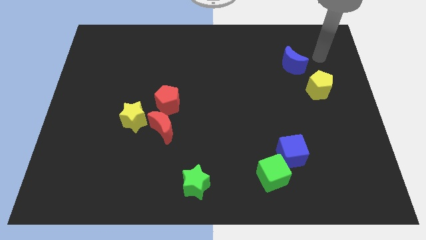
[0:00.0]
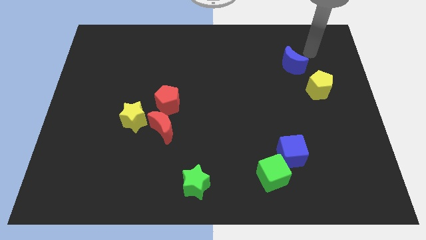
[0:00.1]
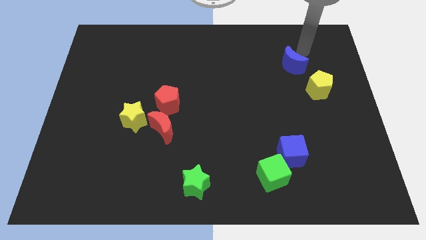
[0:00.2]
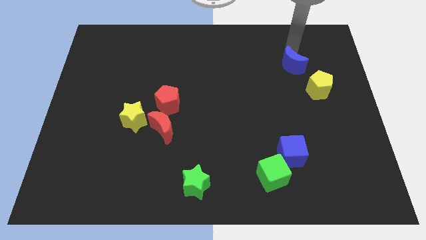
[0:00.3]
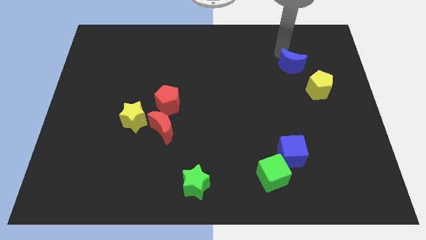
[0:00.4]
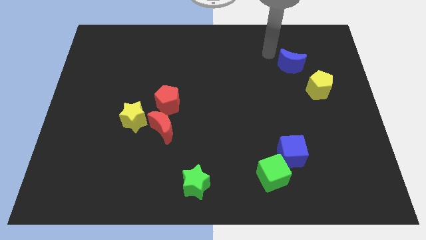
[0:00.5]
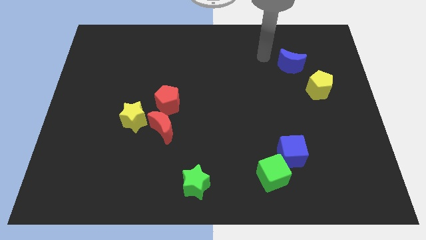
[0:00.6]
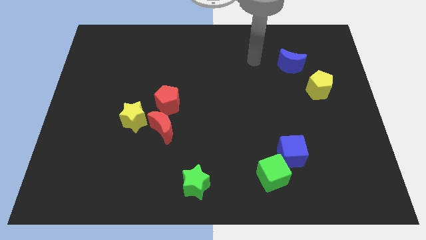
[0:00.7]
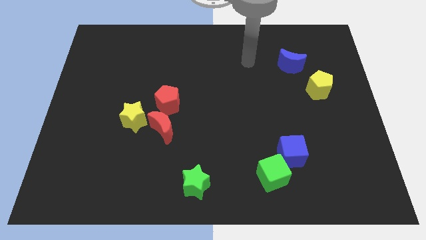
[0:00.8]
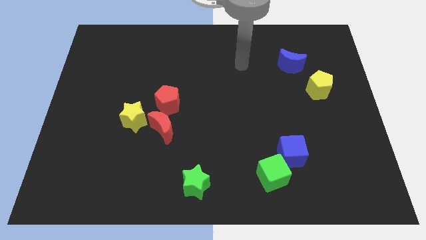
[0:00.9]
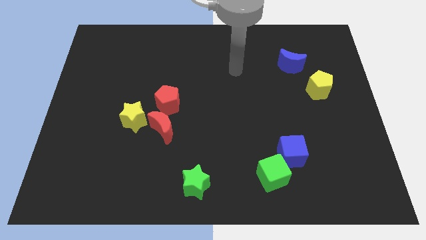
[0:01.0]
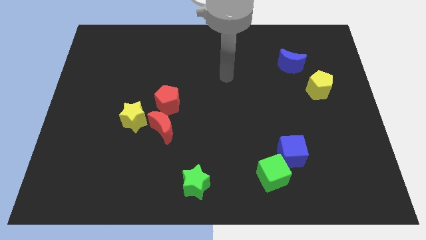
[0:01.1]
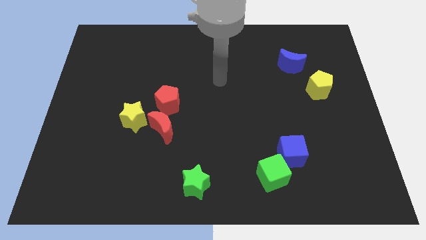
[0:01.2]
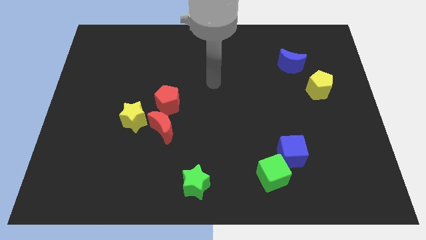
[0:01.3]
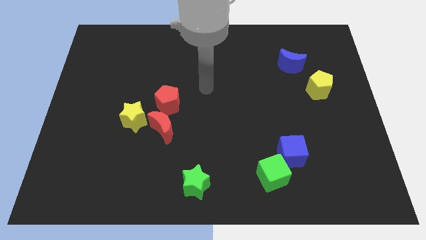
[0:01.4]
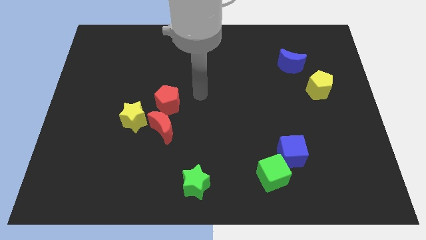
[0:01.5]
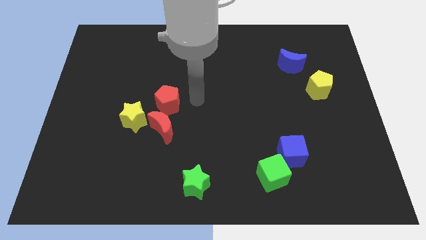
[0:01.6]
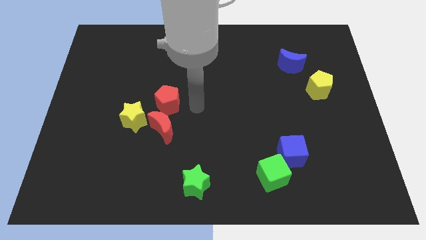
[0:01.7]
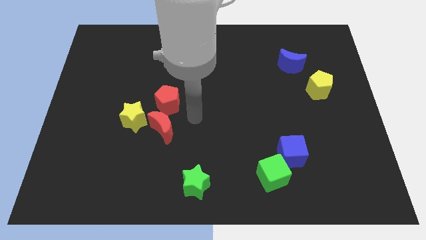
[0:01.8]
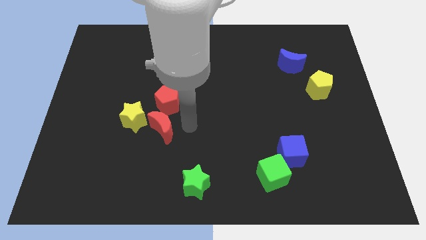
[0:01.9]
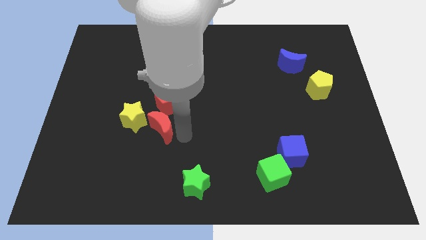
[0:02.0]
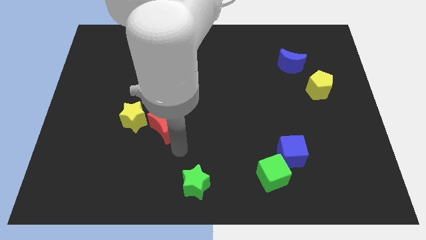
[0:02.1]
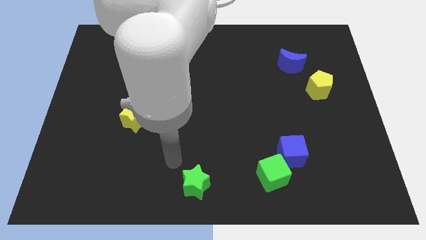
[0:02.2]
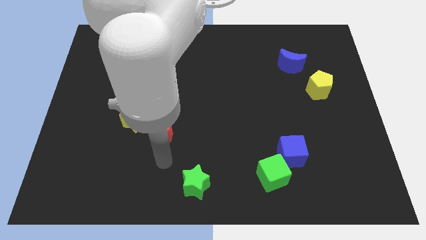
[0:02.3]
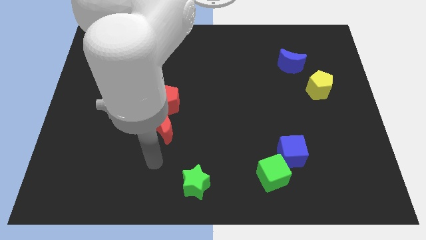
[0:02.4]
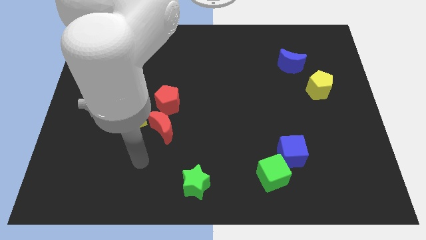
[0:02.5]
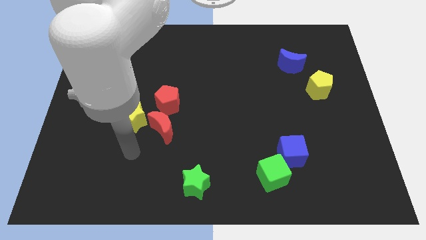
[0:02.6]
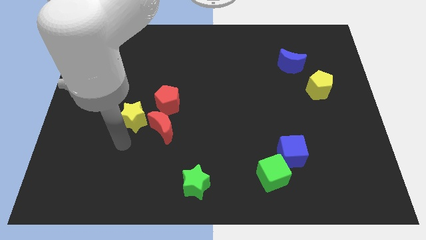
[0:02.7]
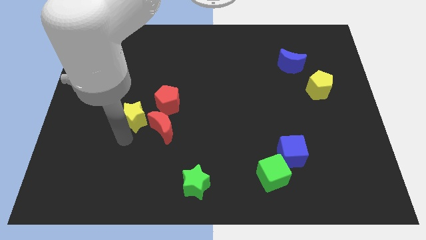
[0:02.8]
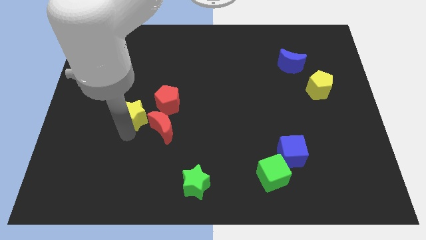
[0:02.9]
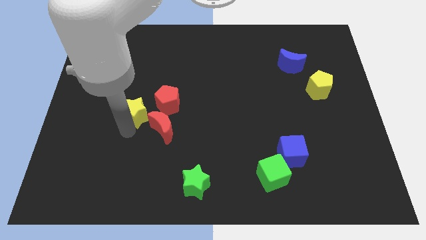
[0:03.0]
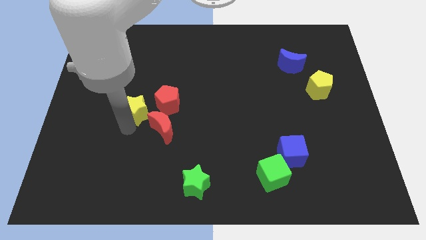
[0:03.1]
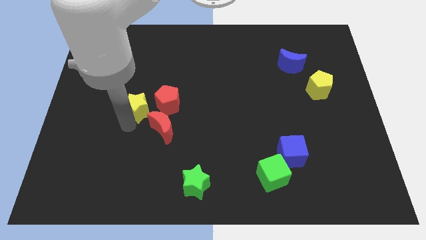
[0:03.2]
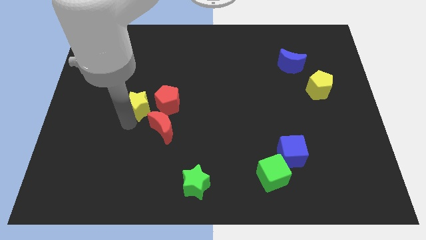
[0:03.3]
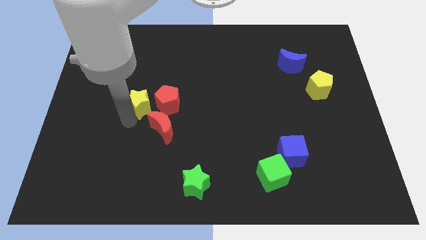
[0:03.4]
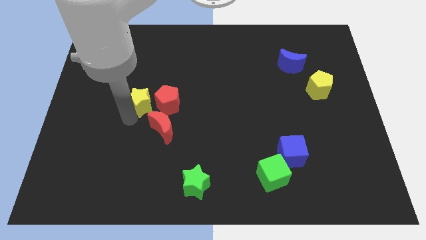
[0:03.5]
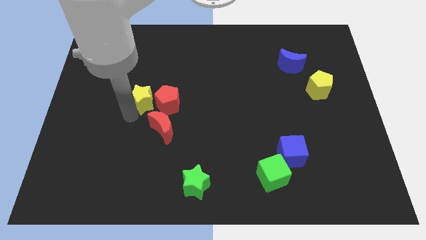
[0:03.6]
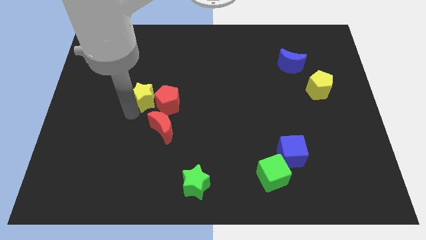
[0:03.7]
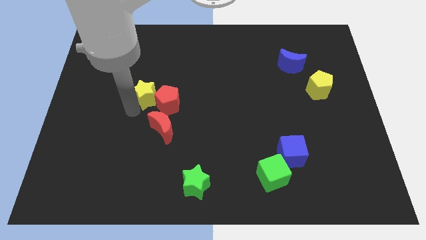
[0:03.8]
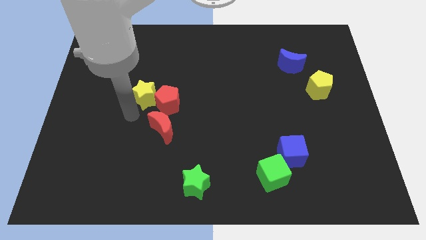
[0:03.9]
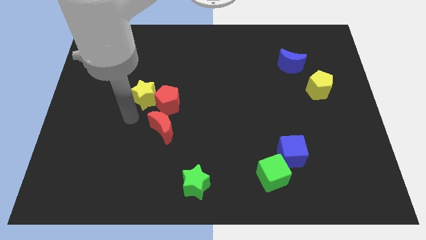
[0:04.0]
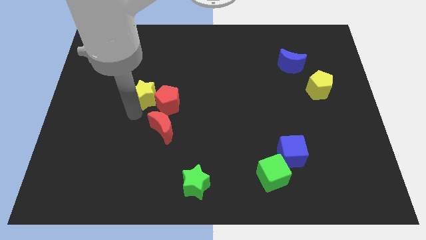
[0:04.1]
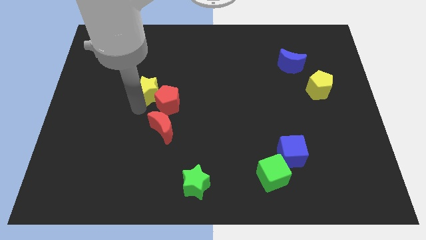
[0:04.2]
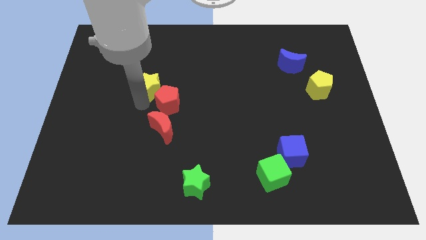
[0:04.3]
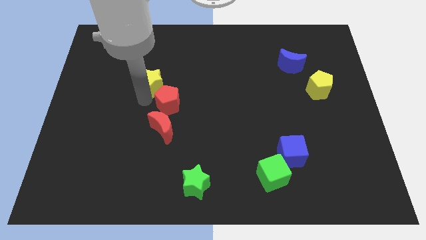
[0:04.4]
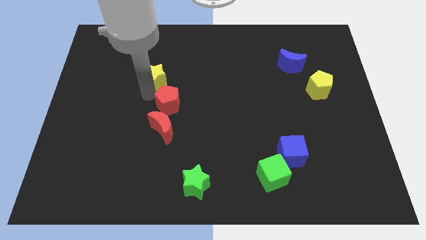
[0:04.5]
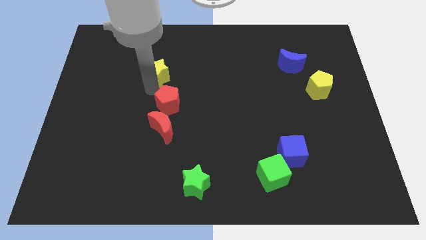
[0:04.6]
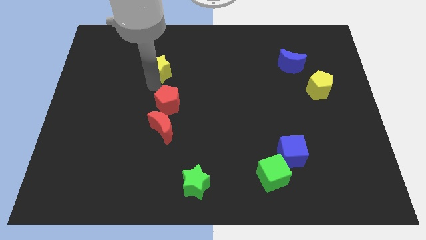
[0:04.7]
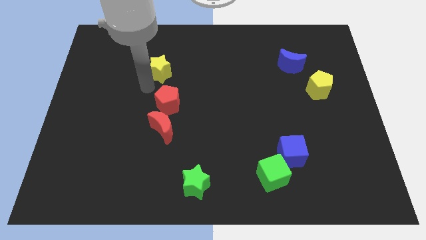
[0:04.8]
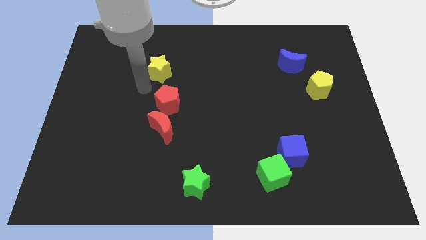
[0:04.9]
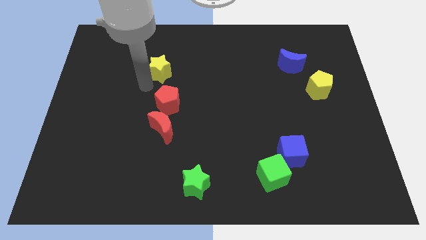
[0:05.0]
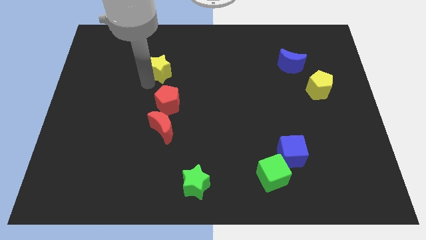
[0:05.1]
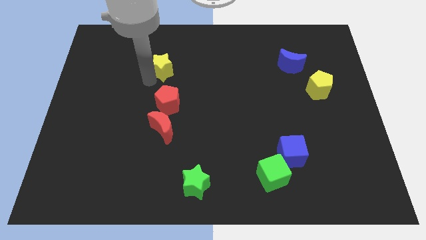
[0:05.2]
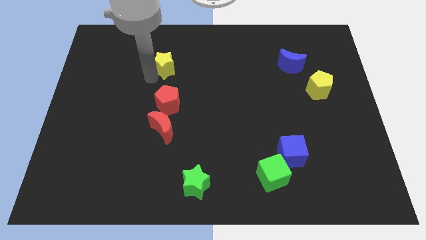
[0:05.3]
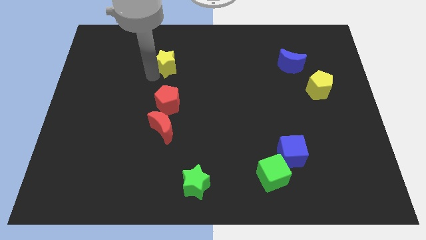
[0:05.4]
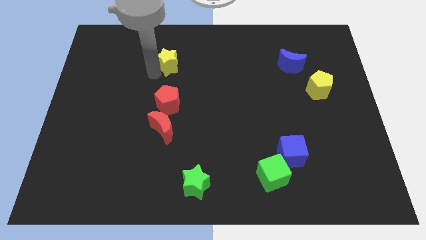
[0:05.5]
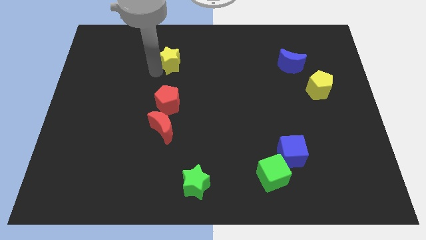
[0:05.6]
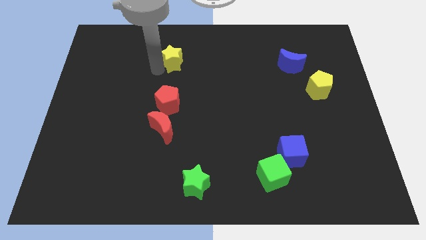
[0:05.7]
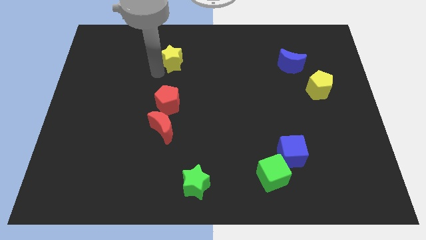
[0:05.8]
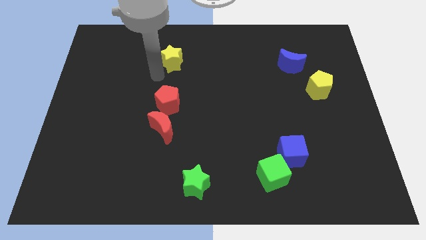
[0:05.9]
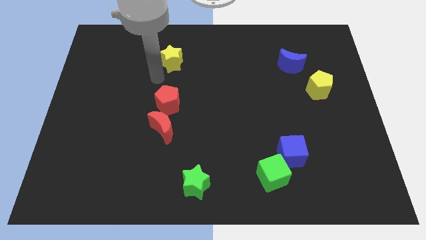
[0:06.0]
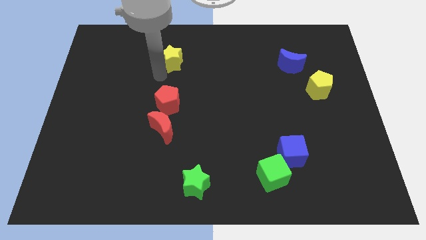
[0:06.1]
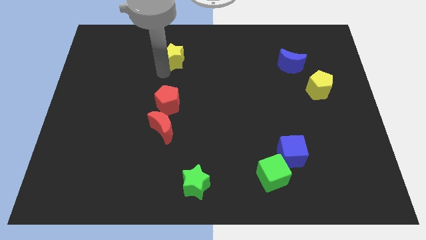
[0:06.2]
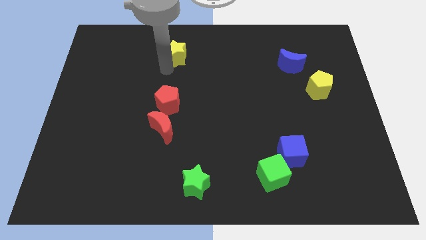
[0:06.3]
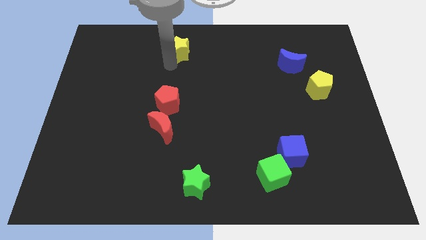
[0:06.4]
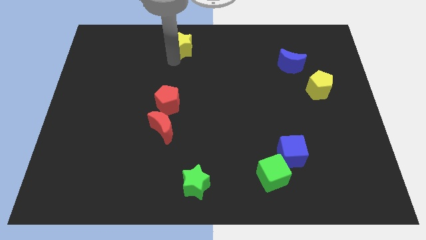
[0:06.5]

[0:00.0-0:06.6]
push the yellow star to the top
